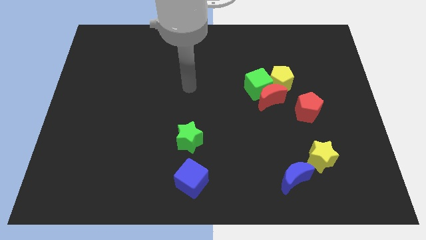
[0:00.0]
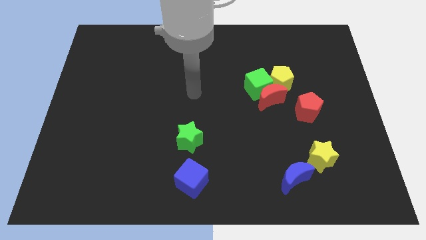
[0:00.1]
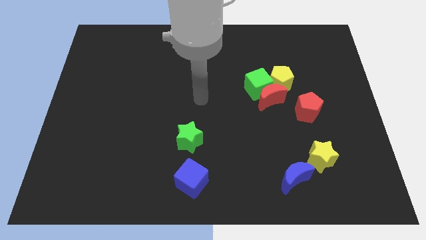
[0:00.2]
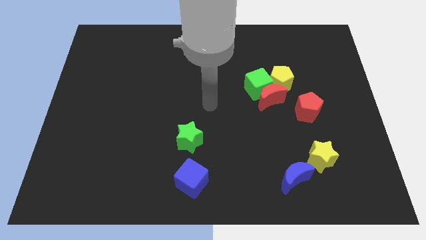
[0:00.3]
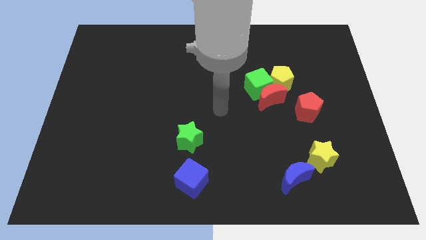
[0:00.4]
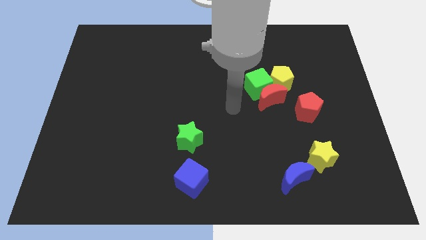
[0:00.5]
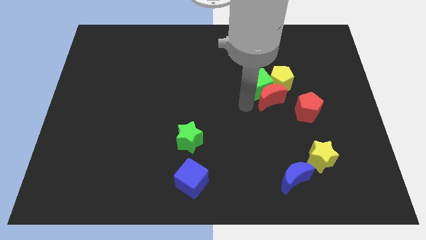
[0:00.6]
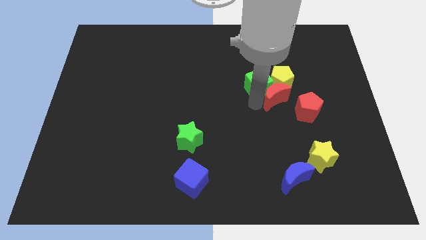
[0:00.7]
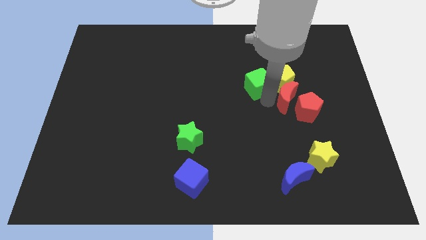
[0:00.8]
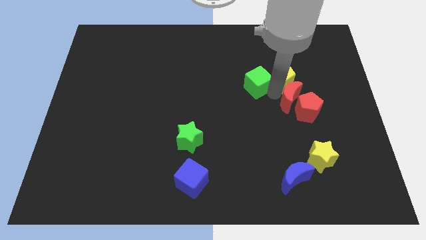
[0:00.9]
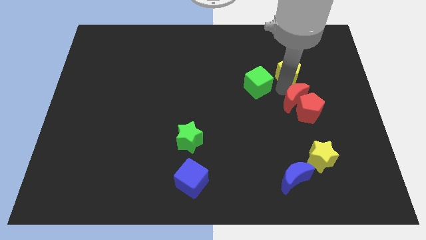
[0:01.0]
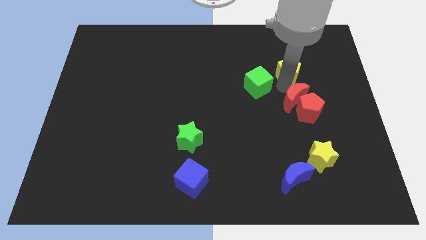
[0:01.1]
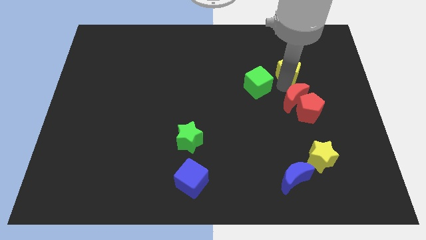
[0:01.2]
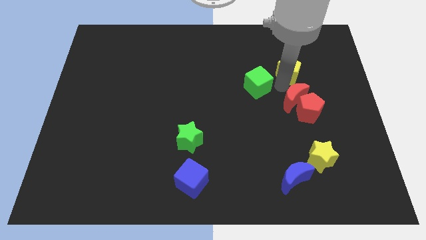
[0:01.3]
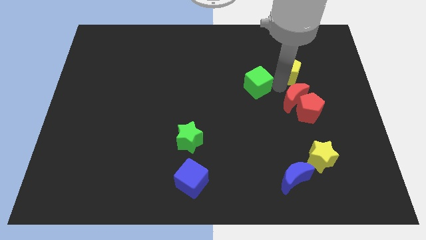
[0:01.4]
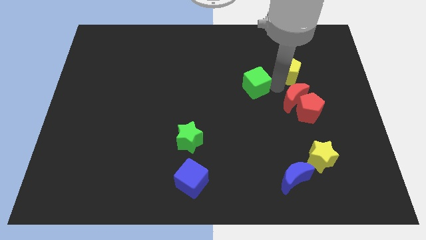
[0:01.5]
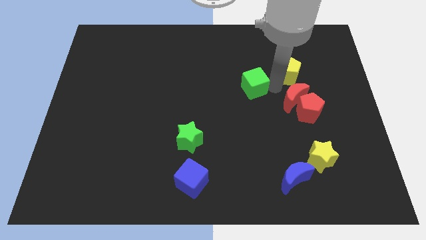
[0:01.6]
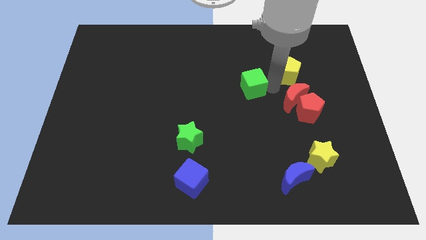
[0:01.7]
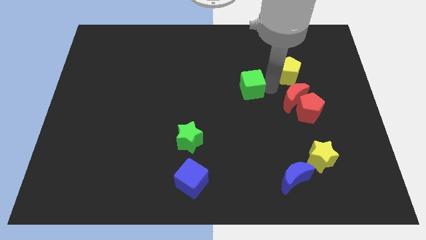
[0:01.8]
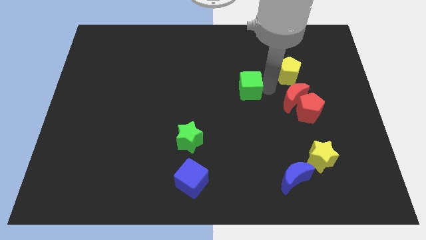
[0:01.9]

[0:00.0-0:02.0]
pull the green cube apart from the red moon and yellow pentagon

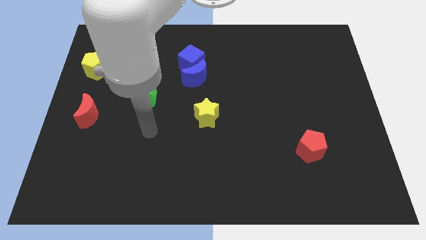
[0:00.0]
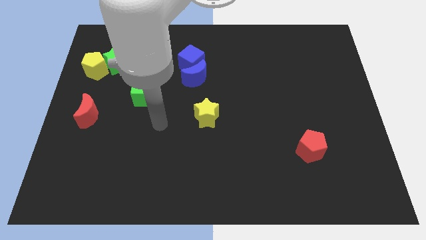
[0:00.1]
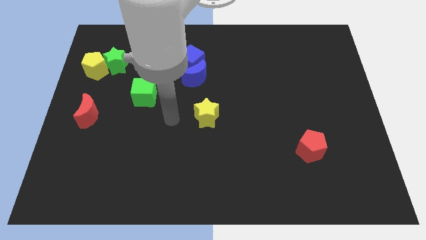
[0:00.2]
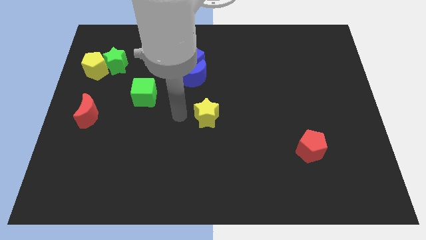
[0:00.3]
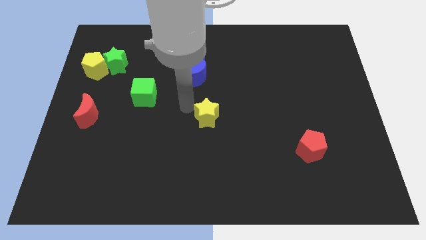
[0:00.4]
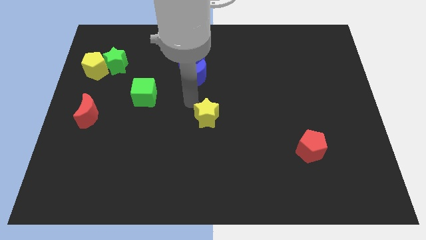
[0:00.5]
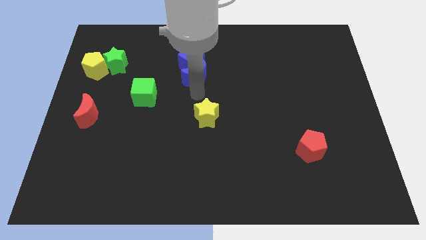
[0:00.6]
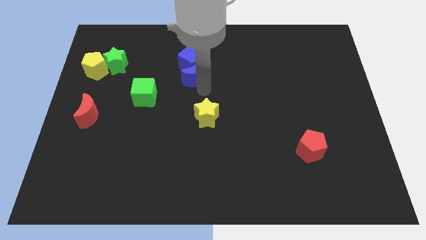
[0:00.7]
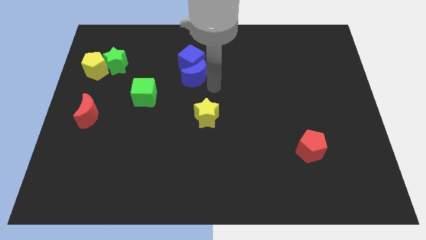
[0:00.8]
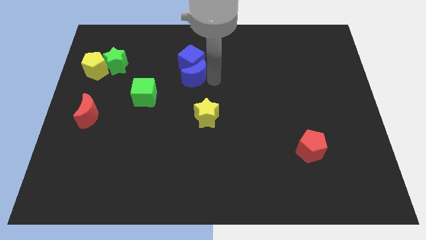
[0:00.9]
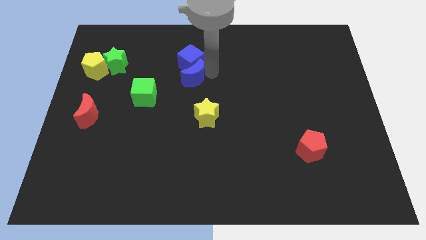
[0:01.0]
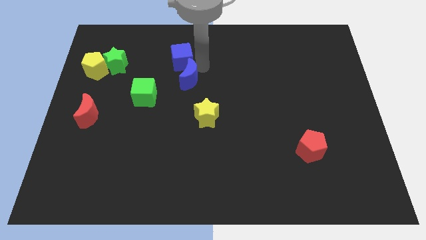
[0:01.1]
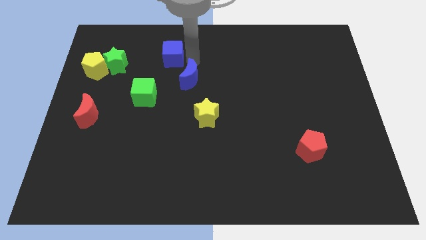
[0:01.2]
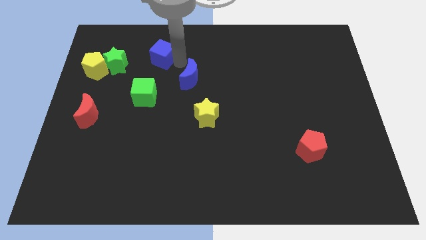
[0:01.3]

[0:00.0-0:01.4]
pull the blue moon apart from the blue cube

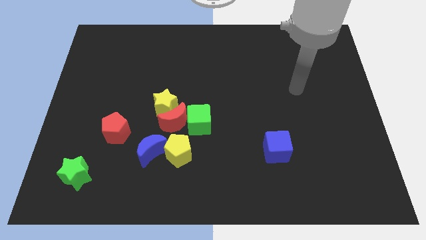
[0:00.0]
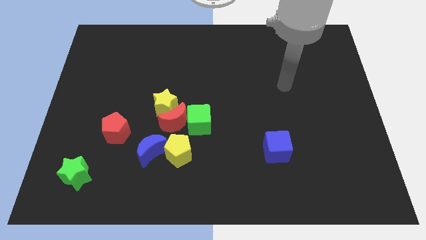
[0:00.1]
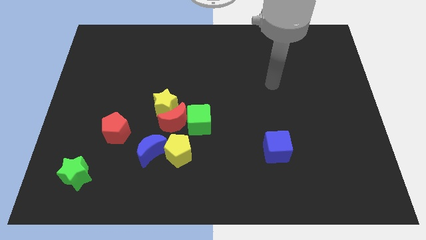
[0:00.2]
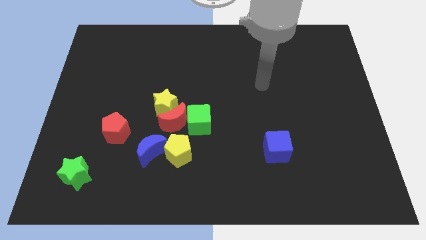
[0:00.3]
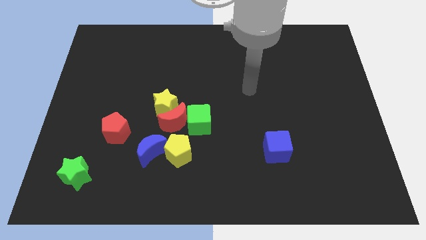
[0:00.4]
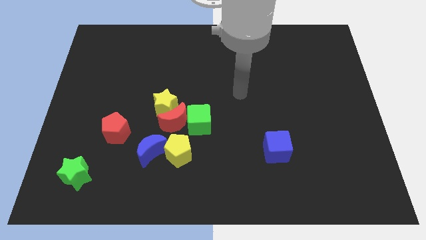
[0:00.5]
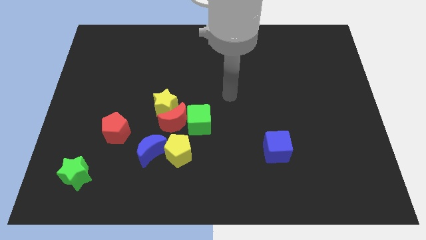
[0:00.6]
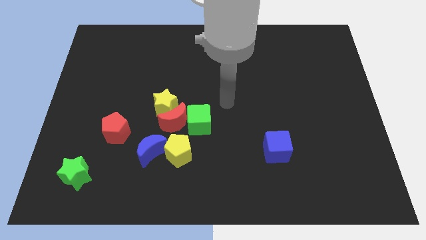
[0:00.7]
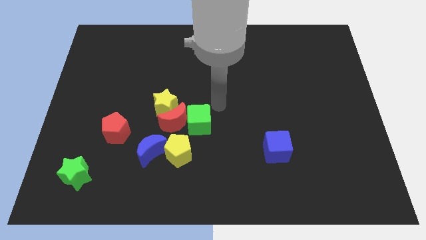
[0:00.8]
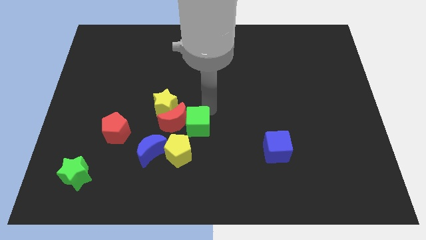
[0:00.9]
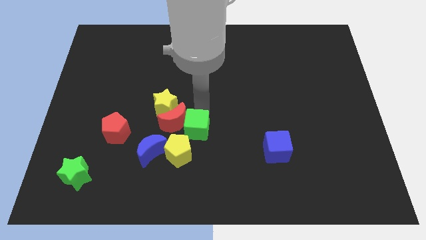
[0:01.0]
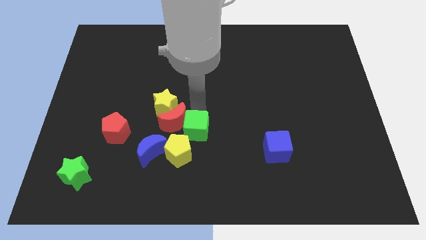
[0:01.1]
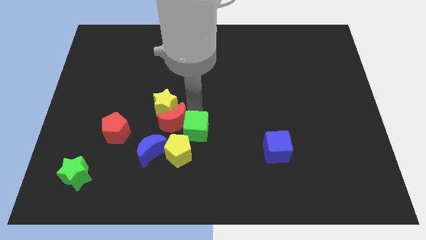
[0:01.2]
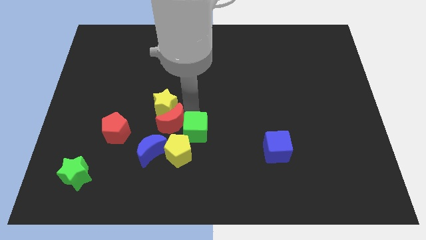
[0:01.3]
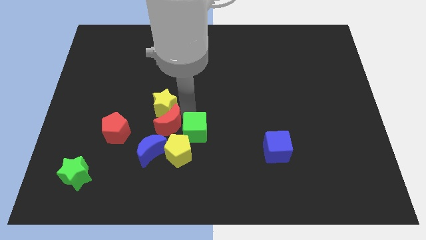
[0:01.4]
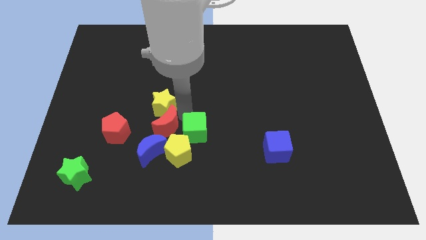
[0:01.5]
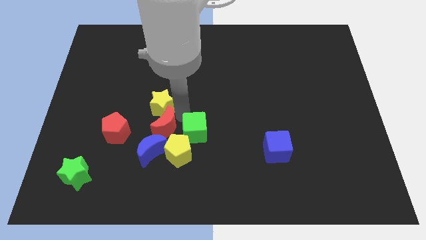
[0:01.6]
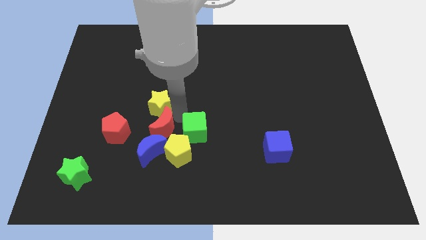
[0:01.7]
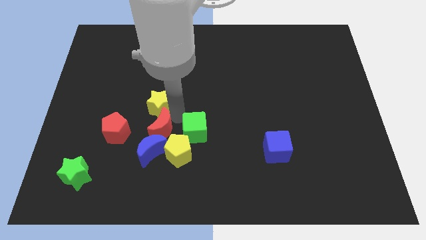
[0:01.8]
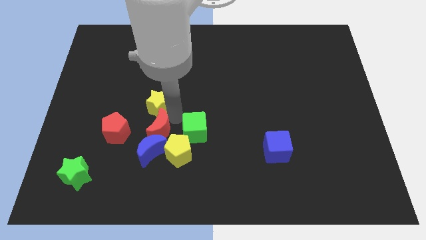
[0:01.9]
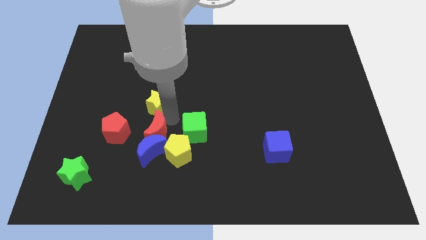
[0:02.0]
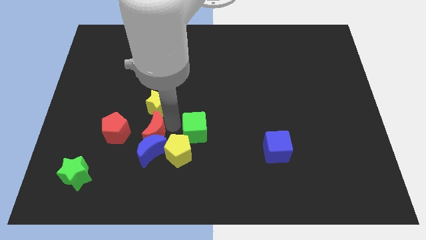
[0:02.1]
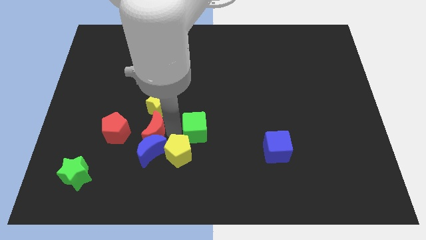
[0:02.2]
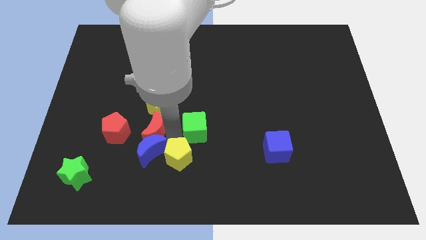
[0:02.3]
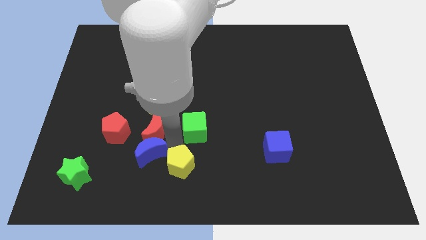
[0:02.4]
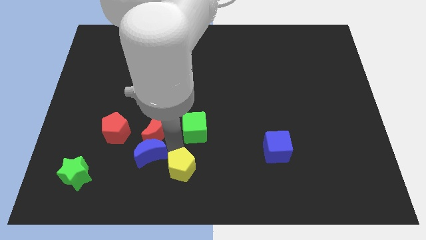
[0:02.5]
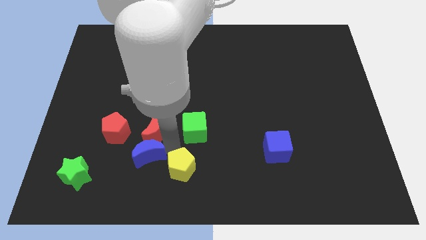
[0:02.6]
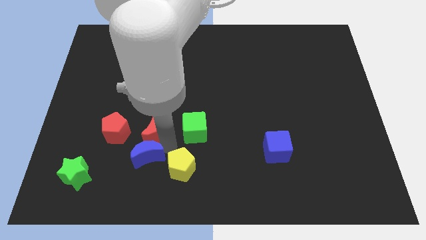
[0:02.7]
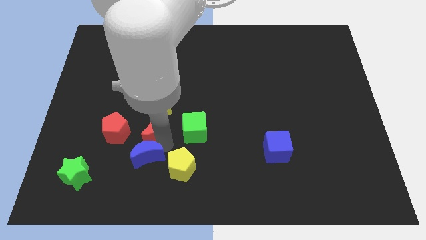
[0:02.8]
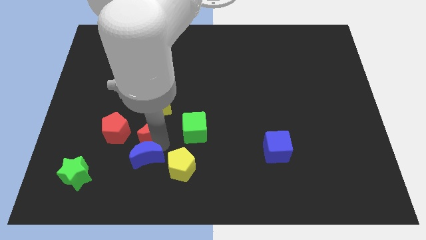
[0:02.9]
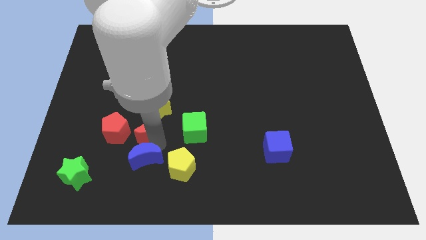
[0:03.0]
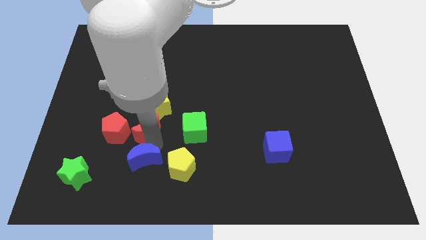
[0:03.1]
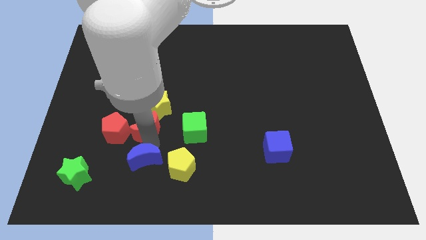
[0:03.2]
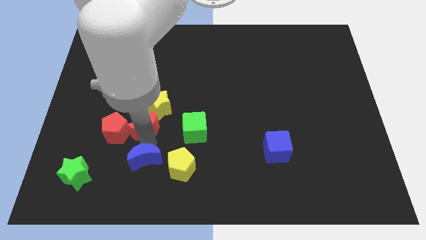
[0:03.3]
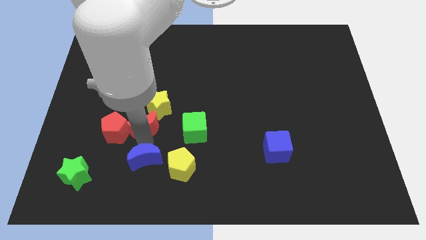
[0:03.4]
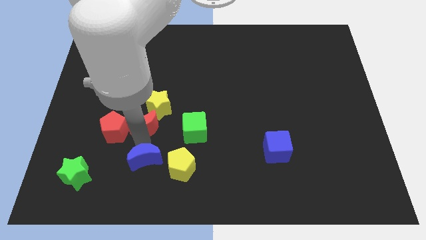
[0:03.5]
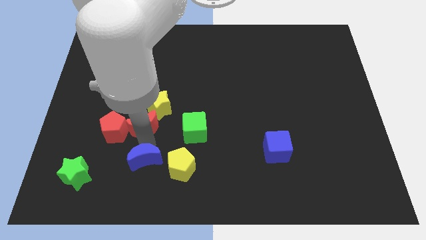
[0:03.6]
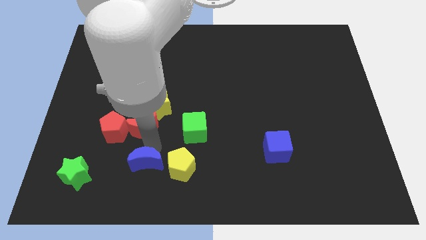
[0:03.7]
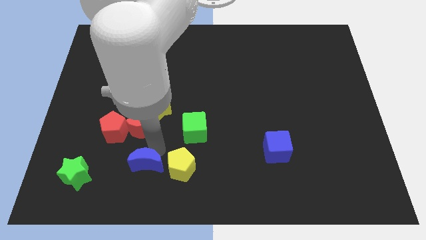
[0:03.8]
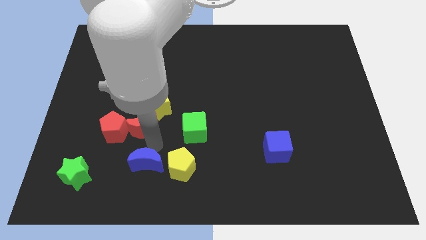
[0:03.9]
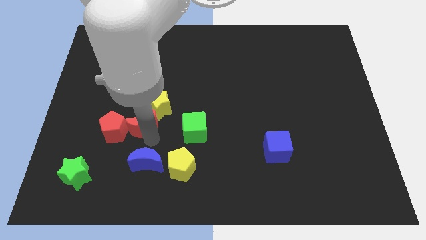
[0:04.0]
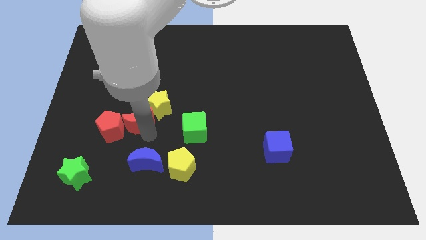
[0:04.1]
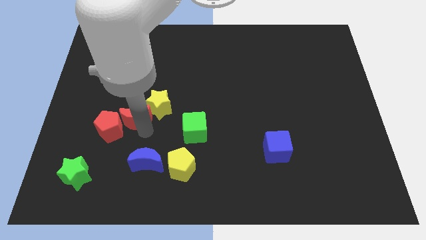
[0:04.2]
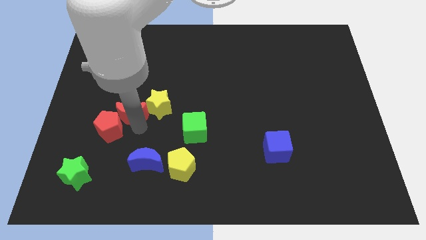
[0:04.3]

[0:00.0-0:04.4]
move the red moon away from the group of blocks

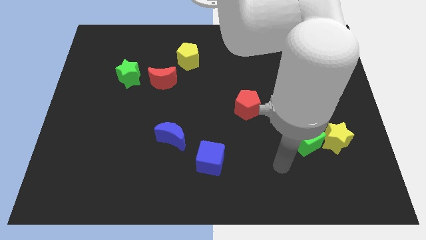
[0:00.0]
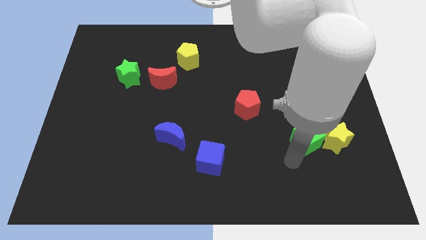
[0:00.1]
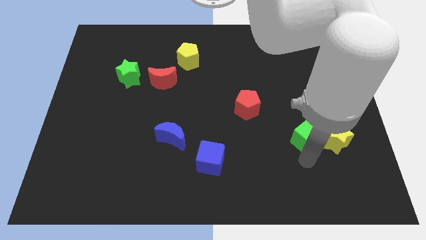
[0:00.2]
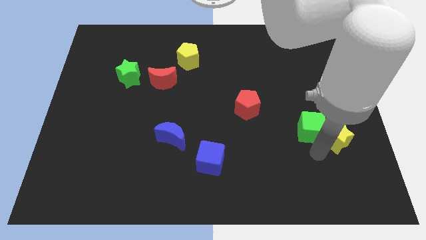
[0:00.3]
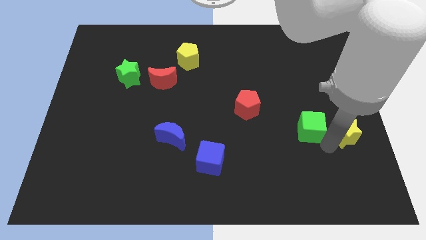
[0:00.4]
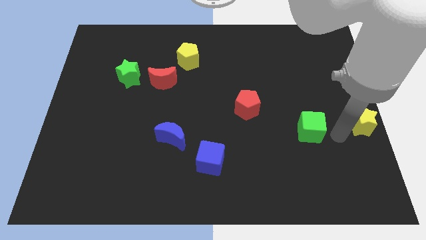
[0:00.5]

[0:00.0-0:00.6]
pull the green cube apart from the yellow star

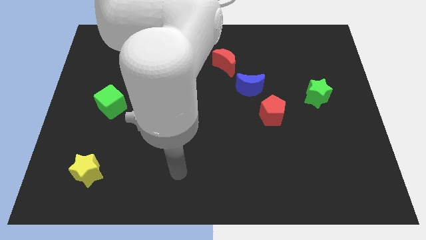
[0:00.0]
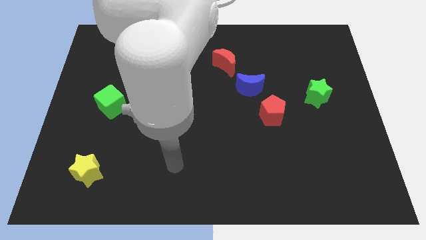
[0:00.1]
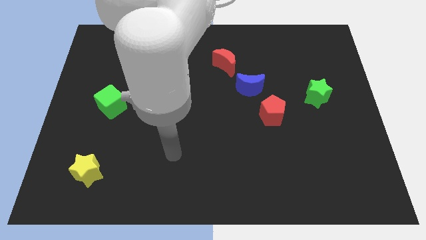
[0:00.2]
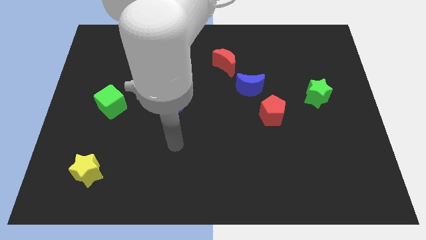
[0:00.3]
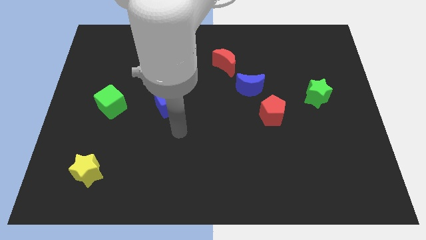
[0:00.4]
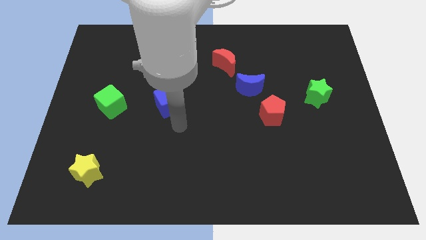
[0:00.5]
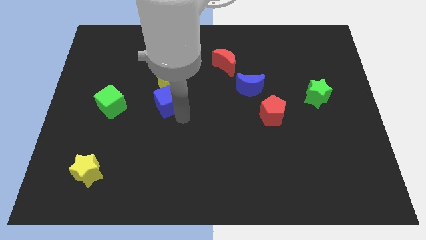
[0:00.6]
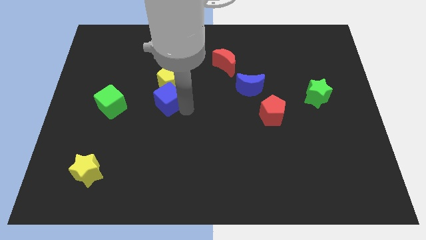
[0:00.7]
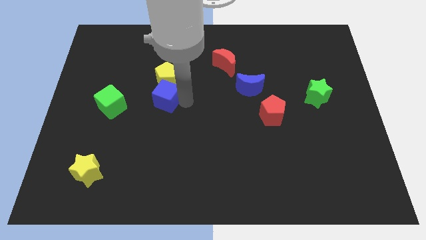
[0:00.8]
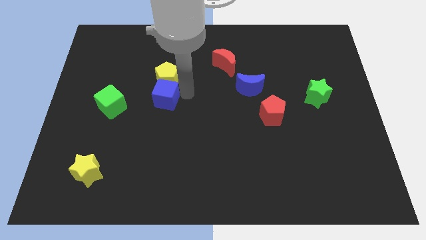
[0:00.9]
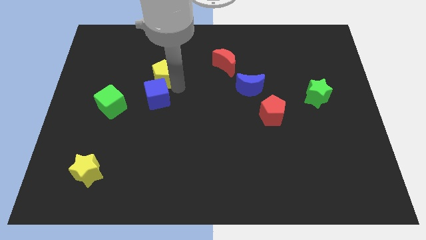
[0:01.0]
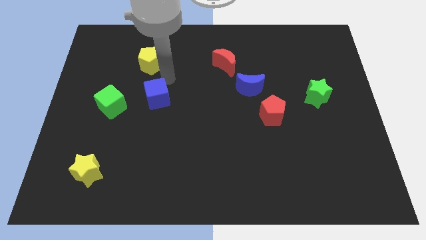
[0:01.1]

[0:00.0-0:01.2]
pull the blue cube apart from the yellow pentagon
